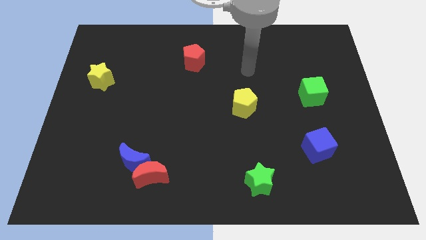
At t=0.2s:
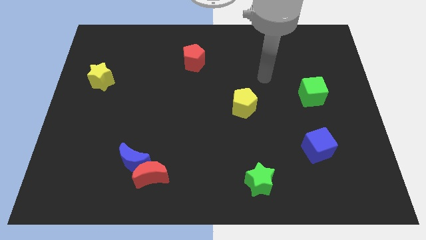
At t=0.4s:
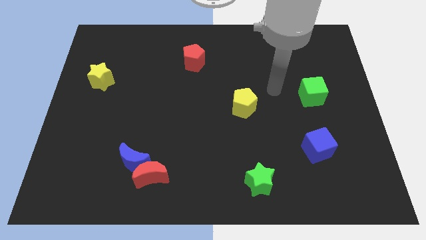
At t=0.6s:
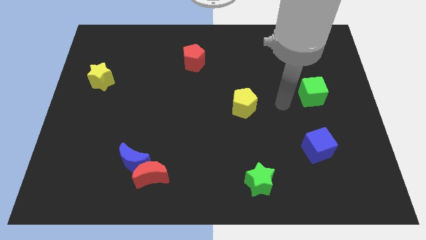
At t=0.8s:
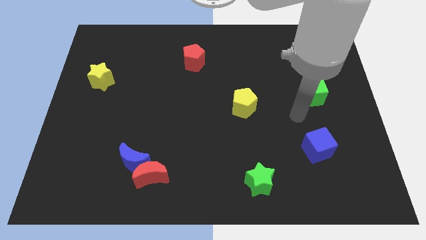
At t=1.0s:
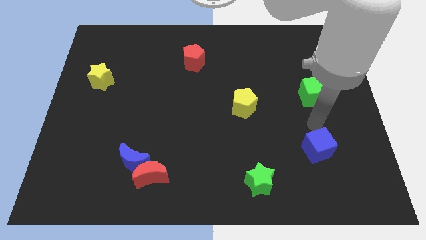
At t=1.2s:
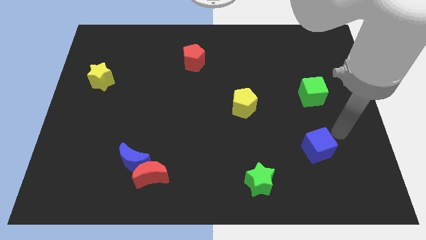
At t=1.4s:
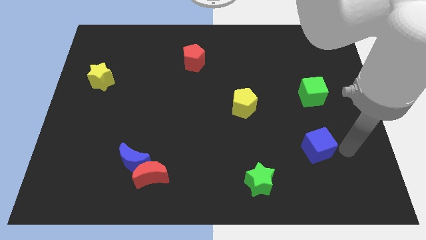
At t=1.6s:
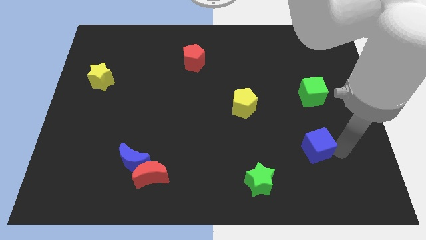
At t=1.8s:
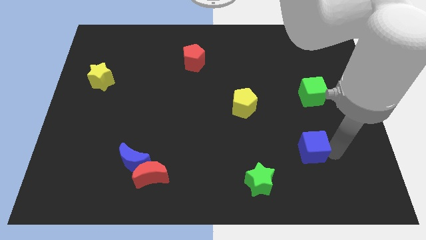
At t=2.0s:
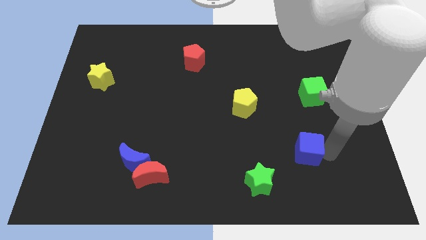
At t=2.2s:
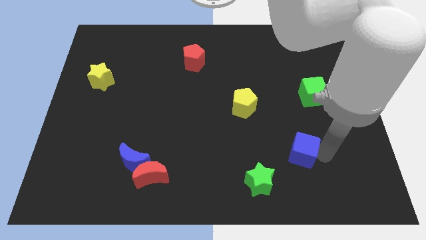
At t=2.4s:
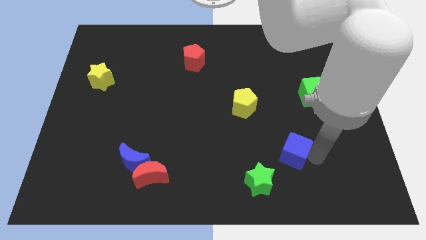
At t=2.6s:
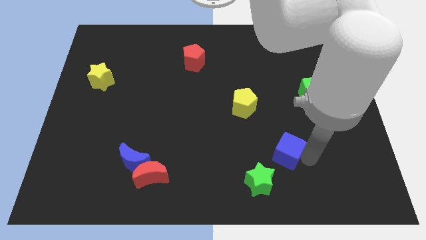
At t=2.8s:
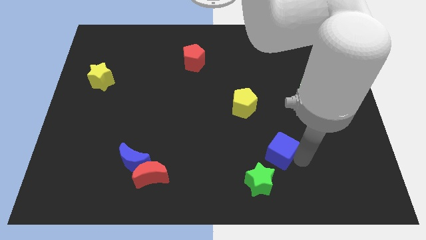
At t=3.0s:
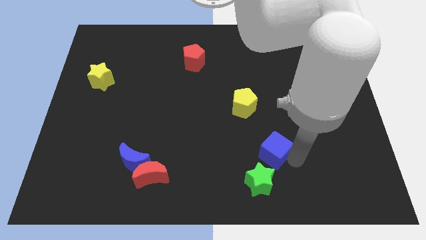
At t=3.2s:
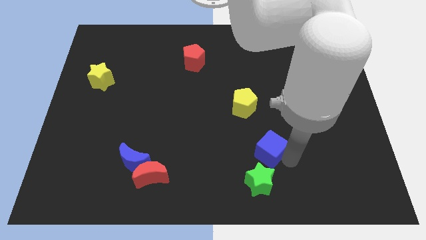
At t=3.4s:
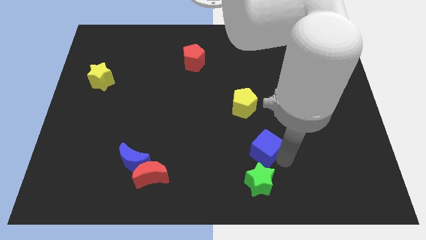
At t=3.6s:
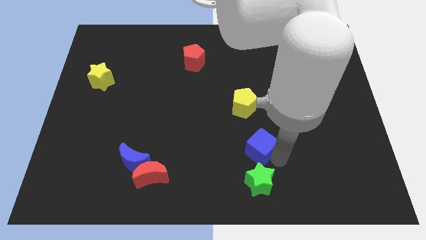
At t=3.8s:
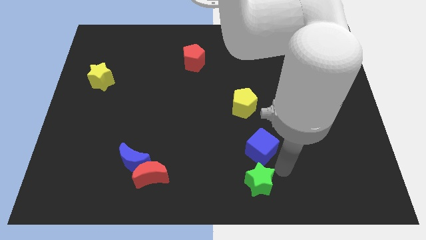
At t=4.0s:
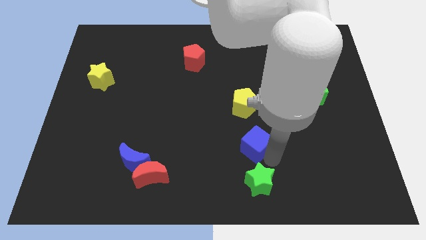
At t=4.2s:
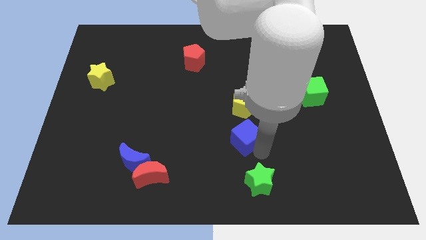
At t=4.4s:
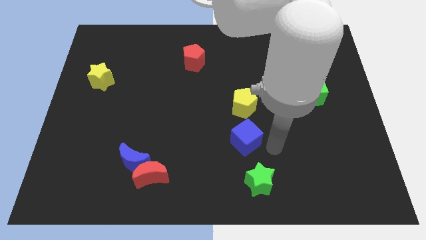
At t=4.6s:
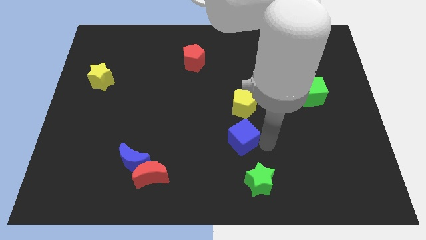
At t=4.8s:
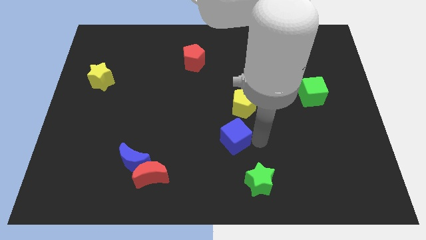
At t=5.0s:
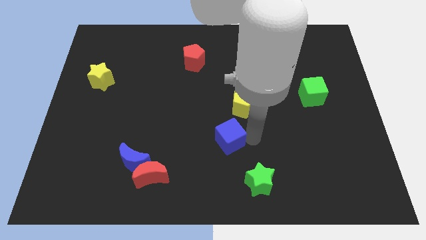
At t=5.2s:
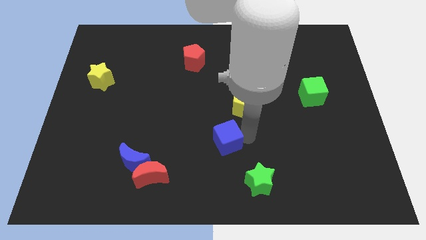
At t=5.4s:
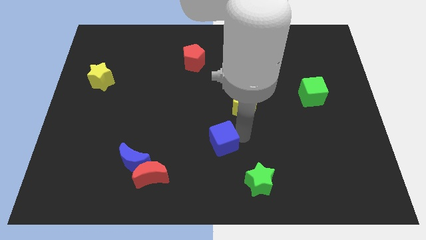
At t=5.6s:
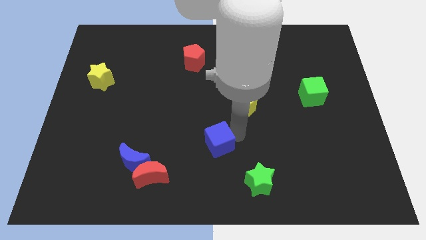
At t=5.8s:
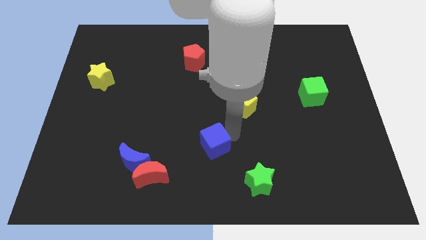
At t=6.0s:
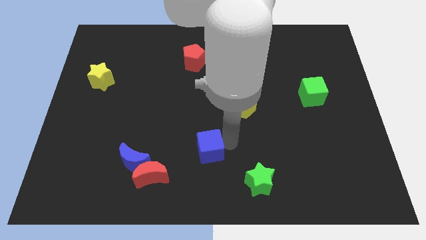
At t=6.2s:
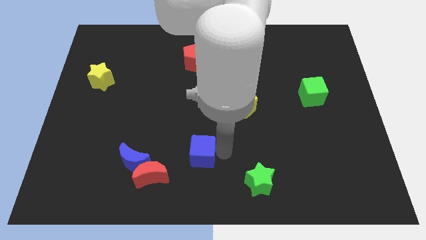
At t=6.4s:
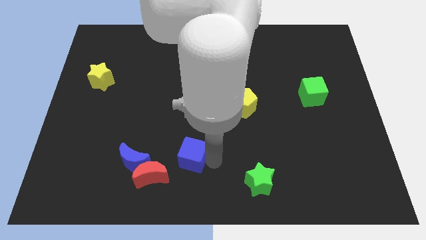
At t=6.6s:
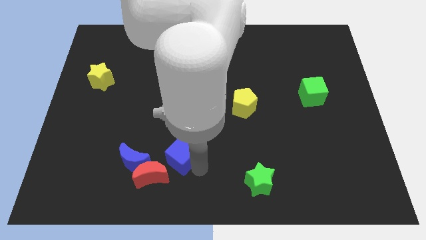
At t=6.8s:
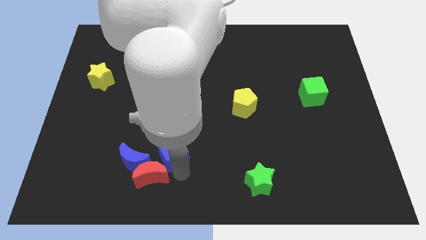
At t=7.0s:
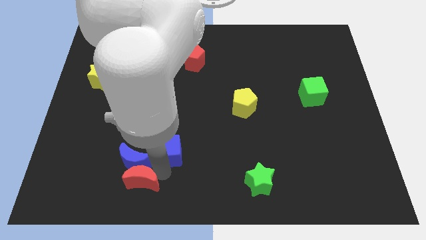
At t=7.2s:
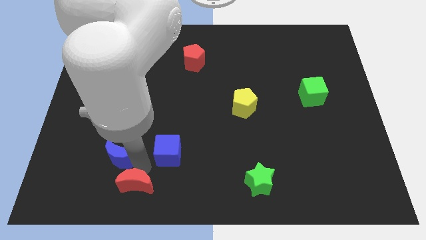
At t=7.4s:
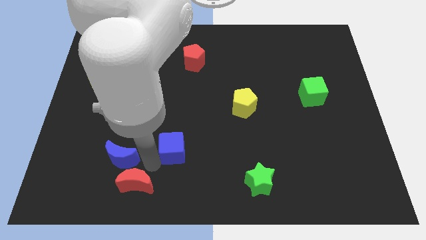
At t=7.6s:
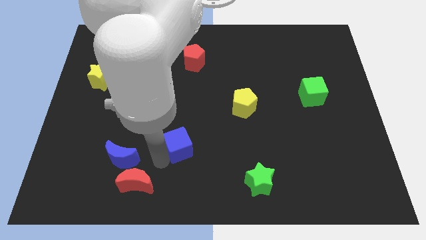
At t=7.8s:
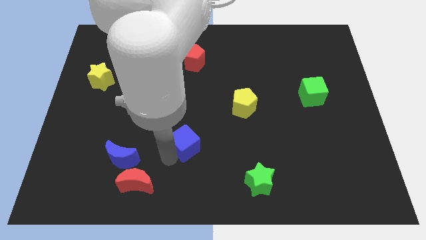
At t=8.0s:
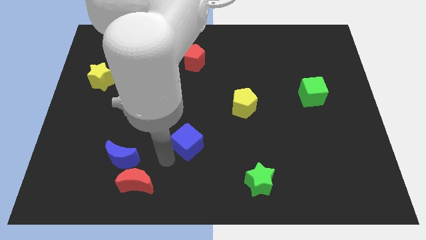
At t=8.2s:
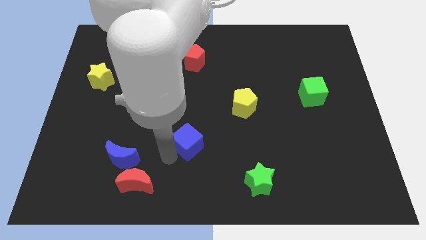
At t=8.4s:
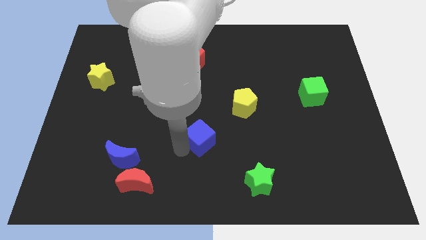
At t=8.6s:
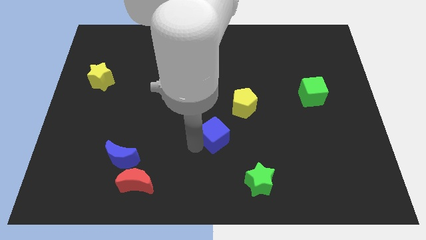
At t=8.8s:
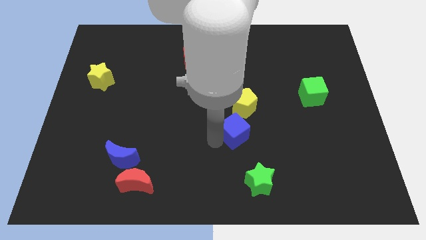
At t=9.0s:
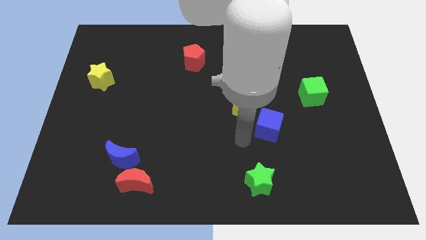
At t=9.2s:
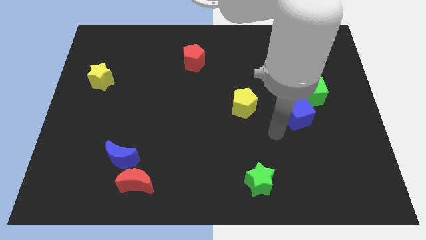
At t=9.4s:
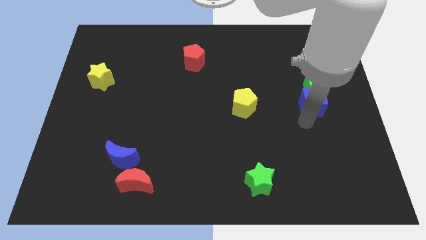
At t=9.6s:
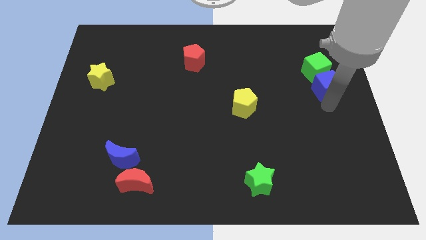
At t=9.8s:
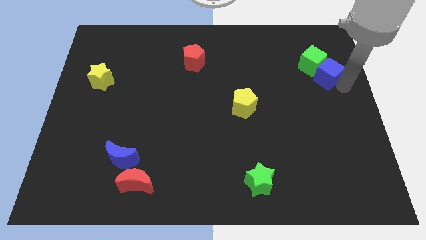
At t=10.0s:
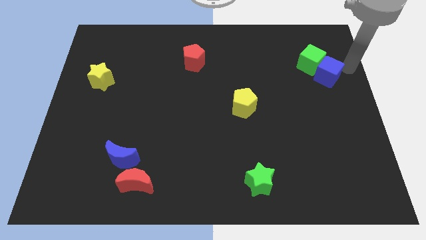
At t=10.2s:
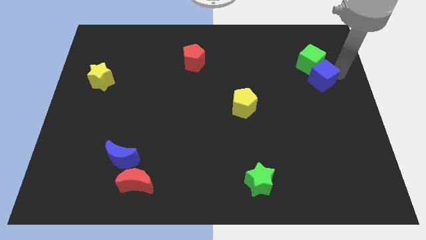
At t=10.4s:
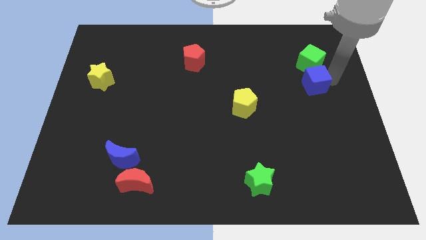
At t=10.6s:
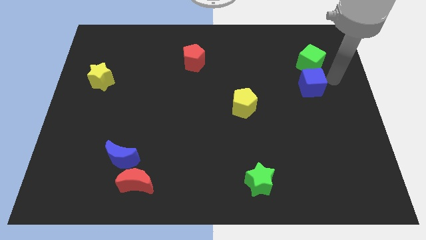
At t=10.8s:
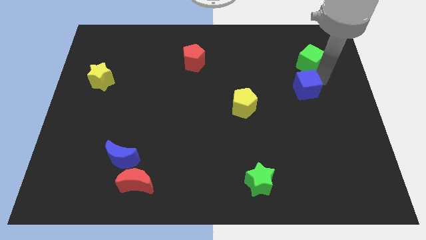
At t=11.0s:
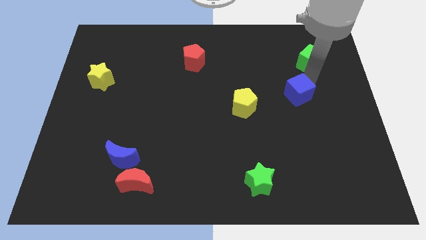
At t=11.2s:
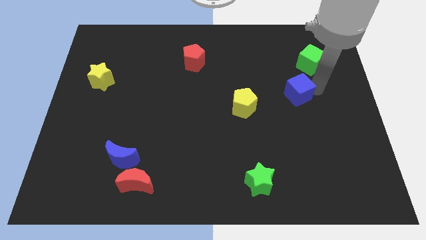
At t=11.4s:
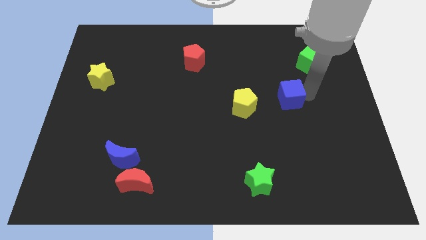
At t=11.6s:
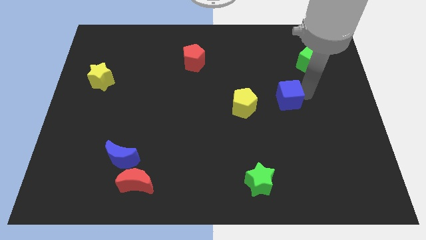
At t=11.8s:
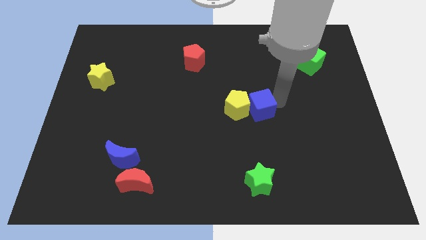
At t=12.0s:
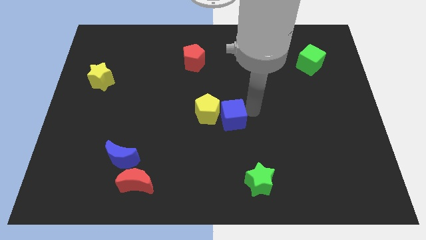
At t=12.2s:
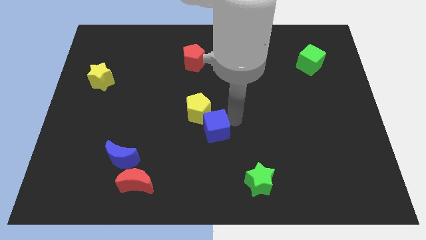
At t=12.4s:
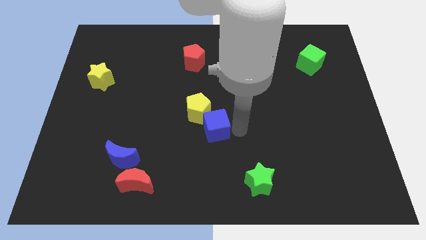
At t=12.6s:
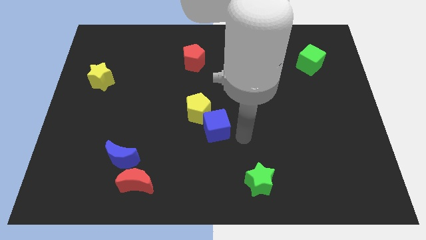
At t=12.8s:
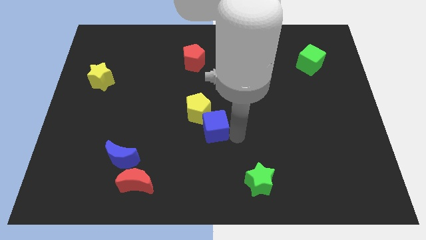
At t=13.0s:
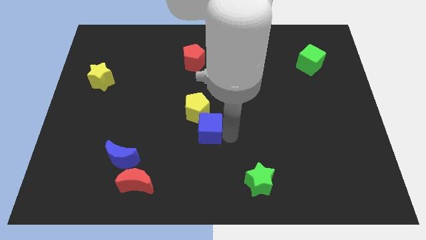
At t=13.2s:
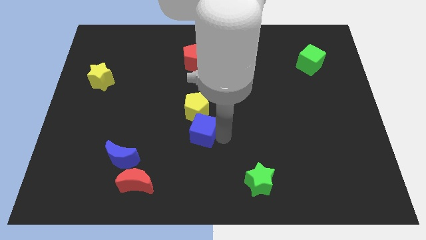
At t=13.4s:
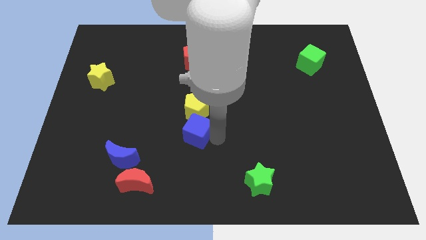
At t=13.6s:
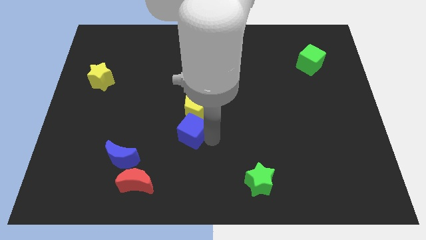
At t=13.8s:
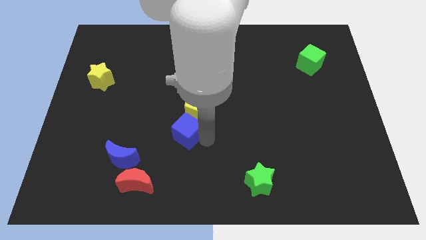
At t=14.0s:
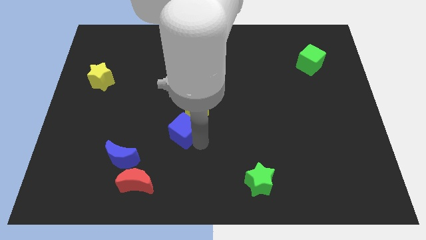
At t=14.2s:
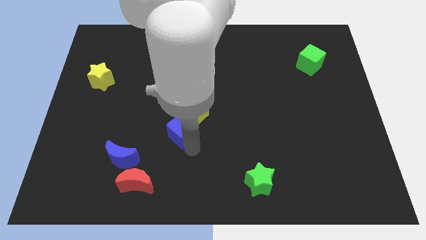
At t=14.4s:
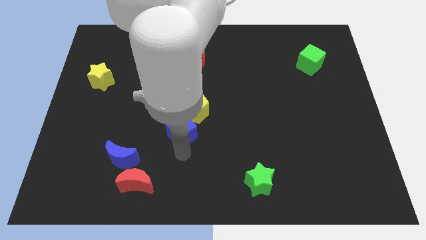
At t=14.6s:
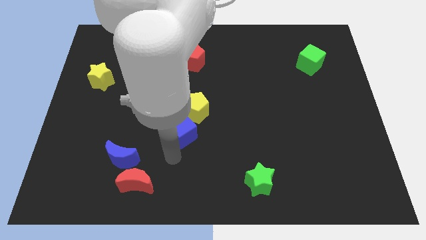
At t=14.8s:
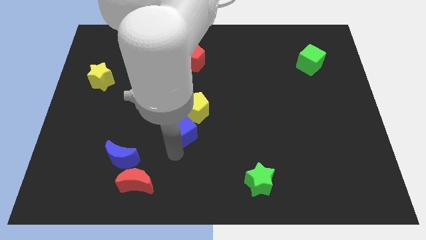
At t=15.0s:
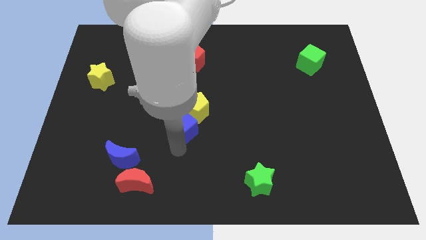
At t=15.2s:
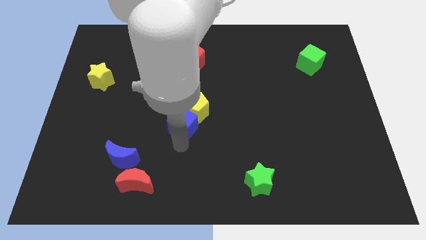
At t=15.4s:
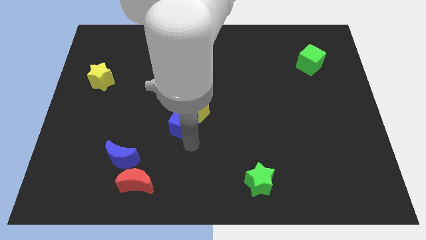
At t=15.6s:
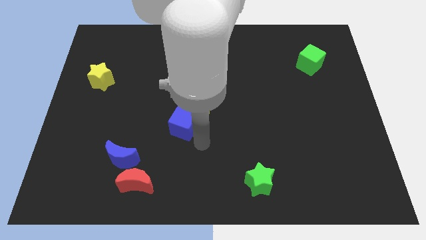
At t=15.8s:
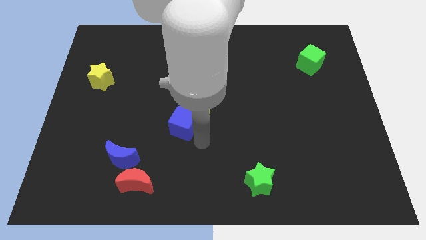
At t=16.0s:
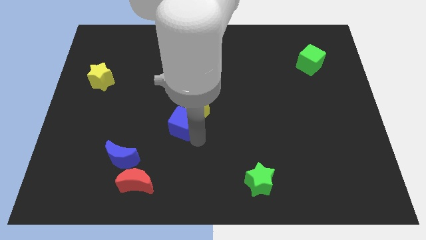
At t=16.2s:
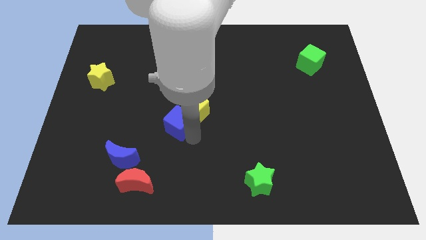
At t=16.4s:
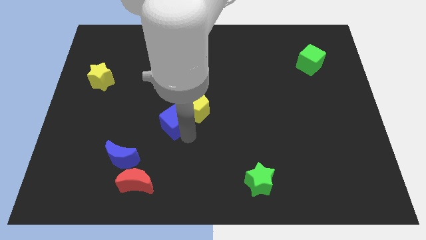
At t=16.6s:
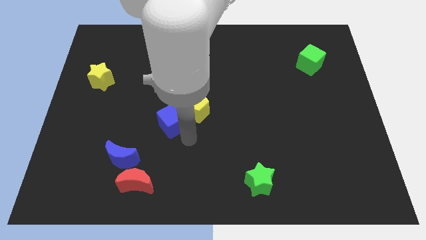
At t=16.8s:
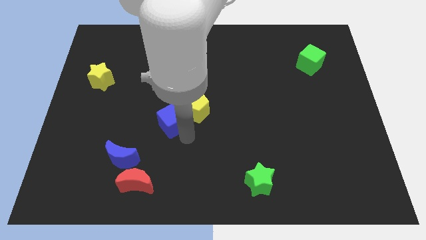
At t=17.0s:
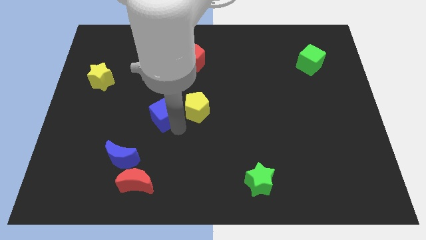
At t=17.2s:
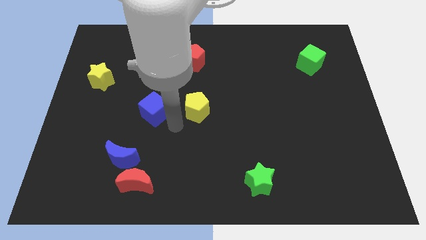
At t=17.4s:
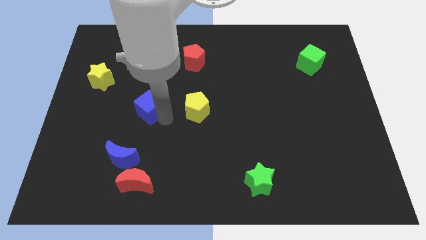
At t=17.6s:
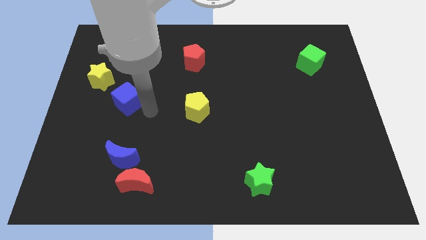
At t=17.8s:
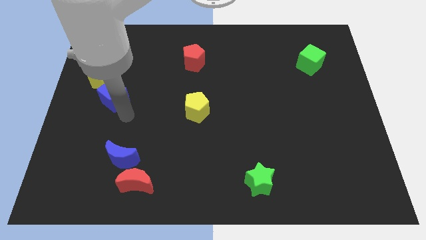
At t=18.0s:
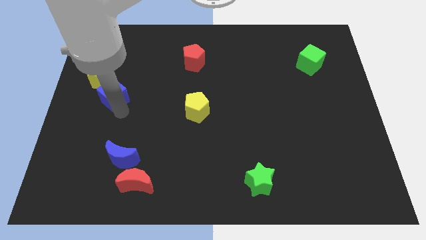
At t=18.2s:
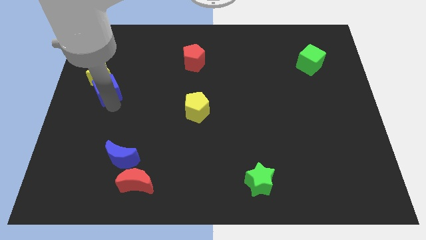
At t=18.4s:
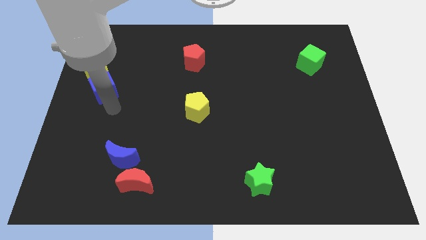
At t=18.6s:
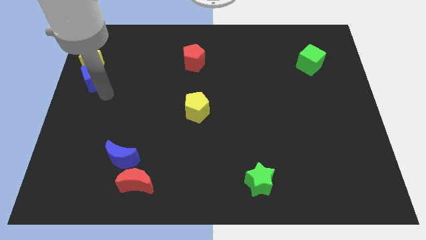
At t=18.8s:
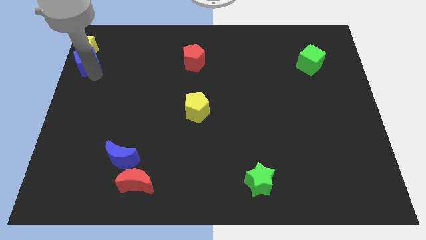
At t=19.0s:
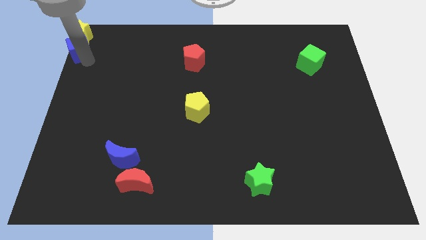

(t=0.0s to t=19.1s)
put the blue cube to the upper left corner
